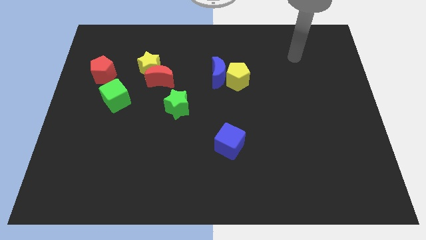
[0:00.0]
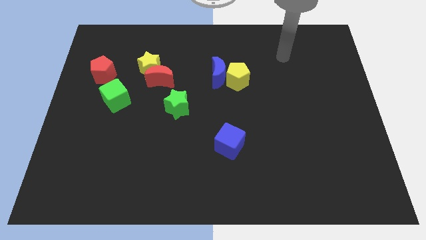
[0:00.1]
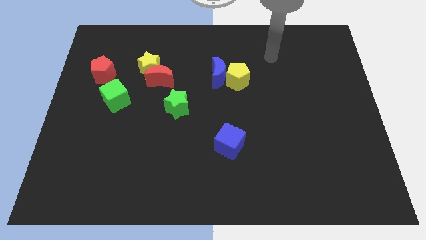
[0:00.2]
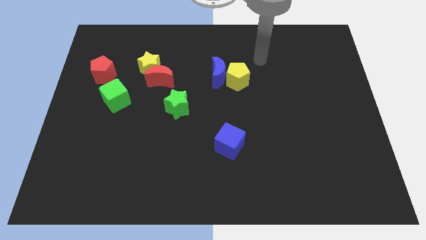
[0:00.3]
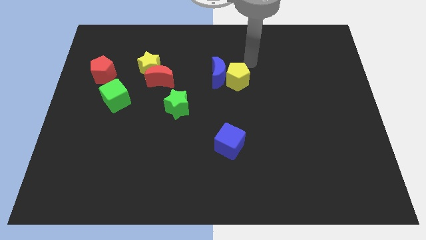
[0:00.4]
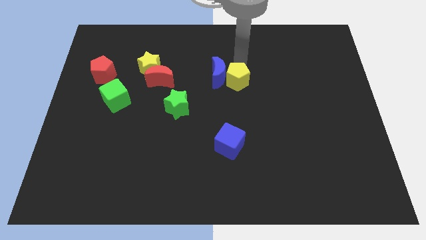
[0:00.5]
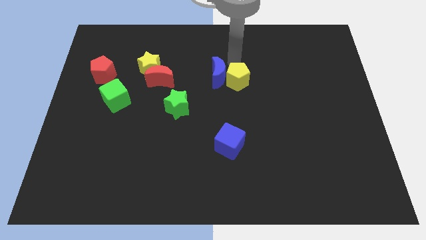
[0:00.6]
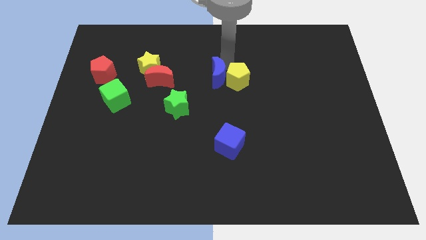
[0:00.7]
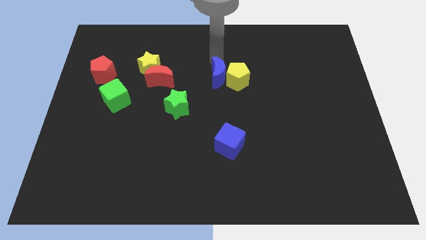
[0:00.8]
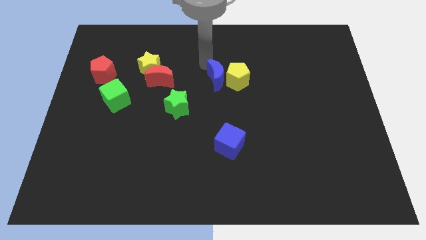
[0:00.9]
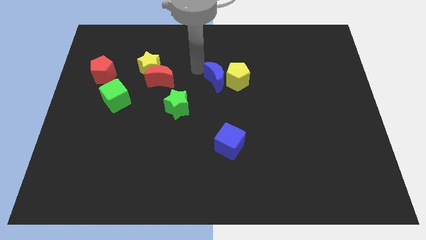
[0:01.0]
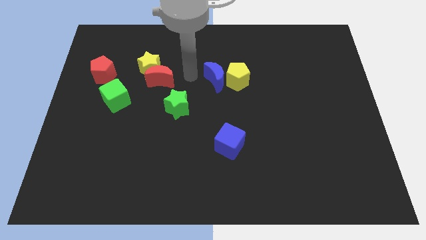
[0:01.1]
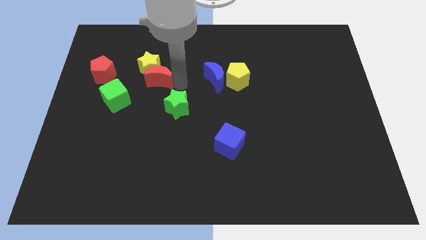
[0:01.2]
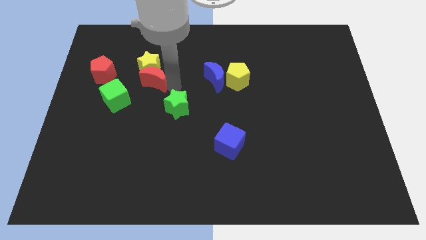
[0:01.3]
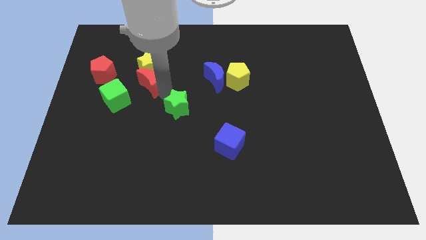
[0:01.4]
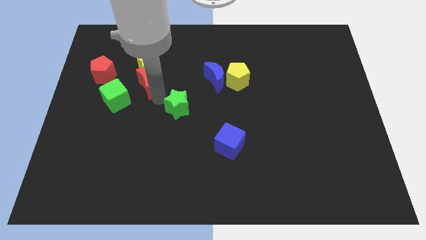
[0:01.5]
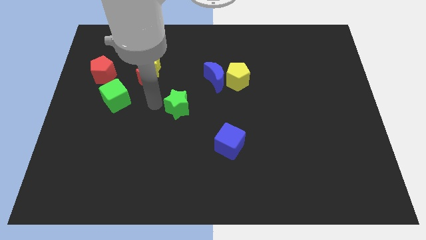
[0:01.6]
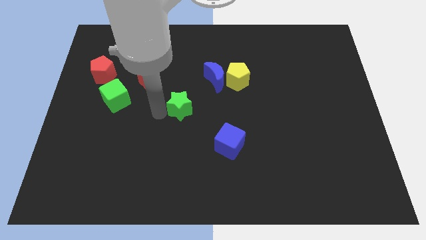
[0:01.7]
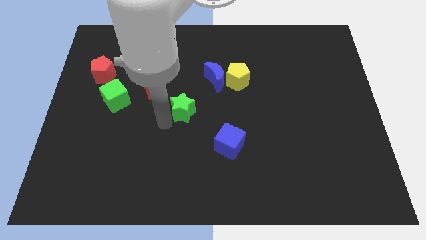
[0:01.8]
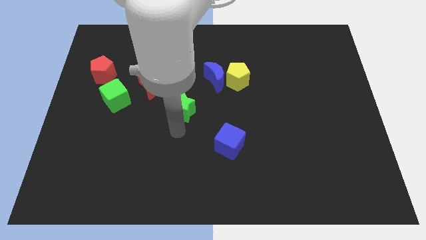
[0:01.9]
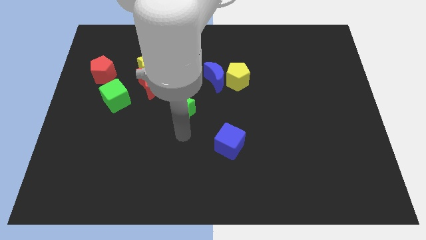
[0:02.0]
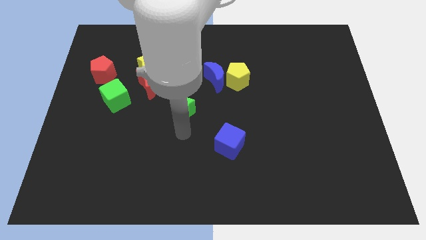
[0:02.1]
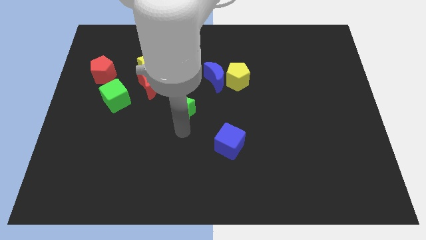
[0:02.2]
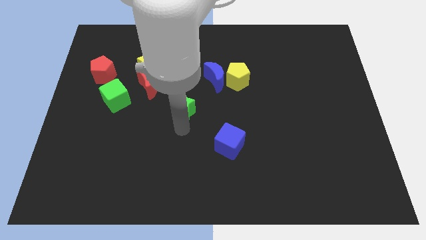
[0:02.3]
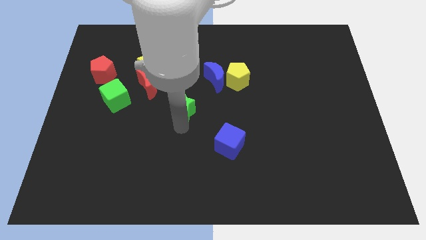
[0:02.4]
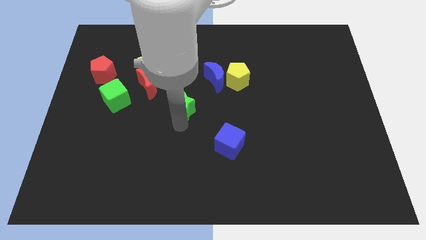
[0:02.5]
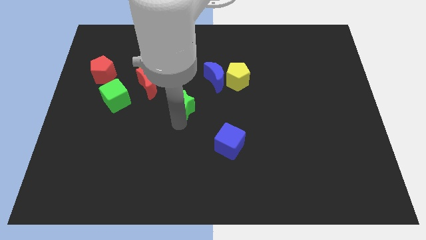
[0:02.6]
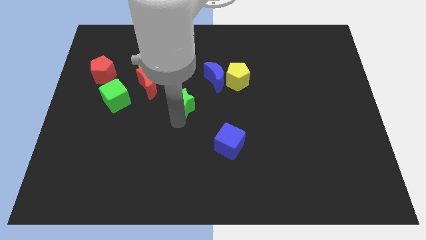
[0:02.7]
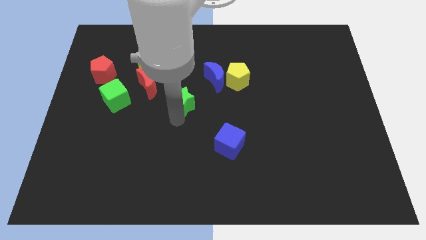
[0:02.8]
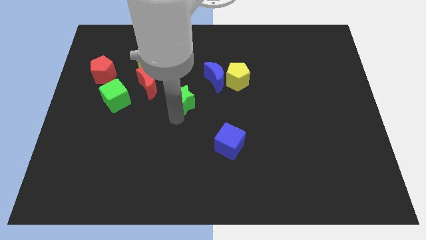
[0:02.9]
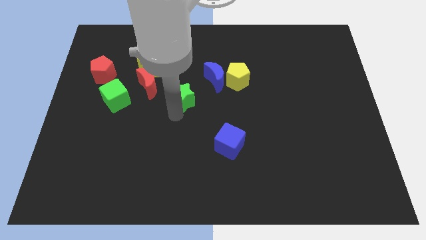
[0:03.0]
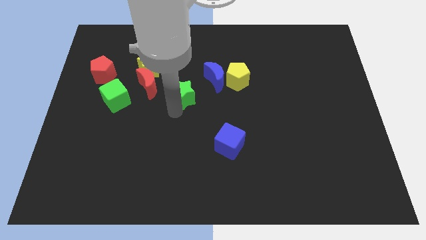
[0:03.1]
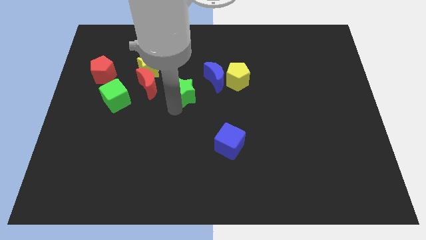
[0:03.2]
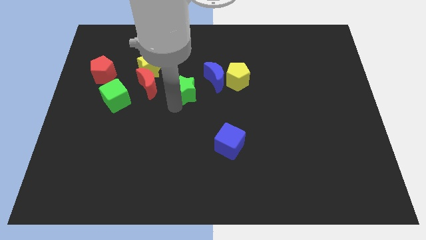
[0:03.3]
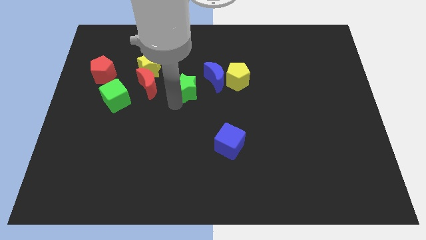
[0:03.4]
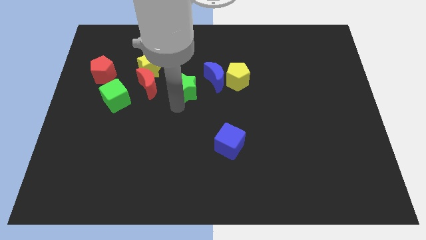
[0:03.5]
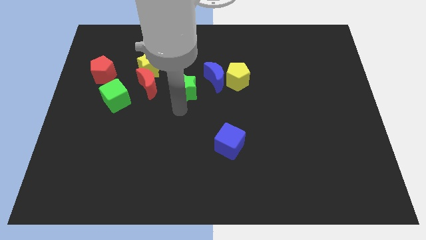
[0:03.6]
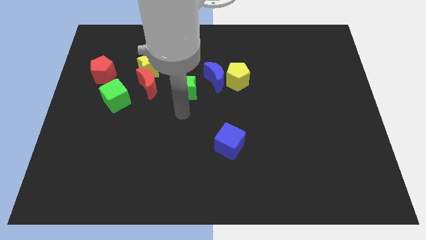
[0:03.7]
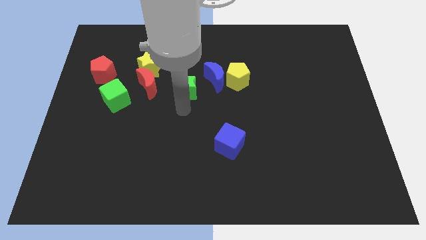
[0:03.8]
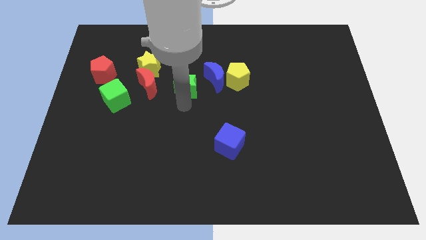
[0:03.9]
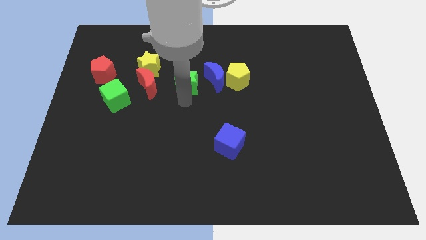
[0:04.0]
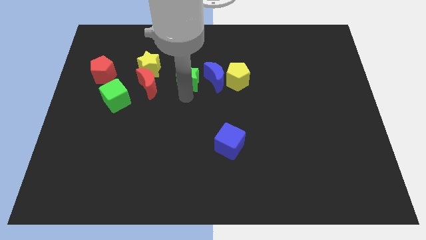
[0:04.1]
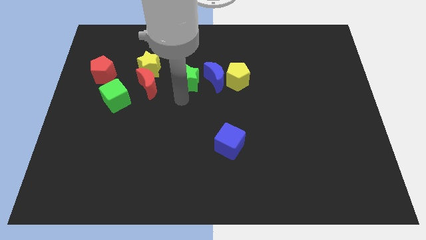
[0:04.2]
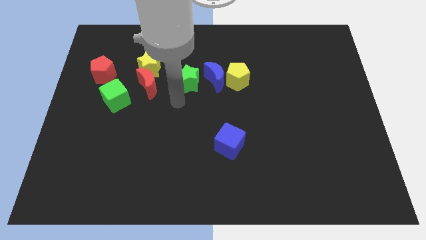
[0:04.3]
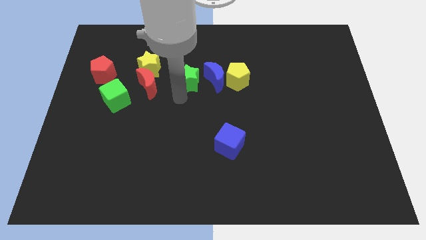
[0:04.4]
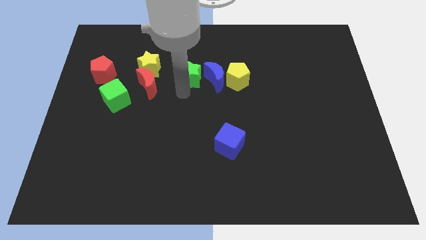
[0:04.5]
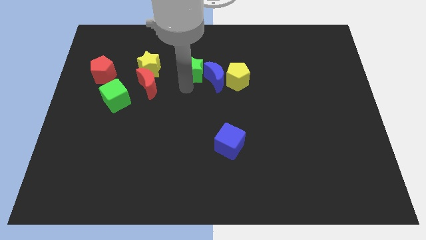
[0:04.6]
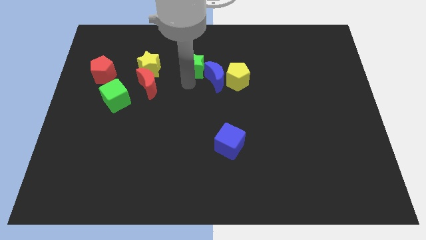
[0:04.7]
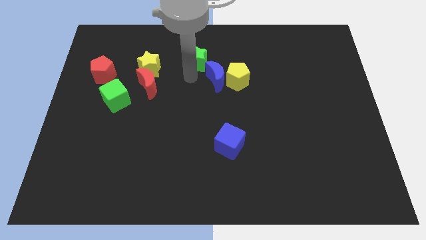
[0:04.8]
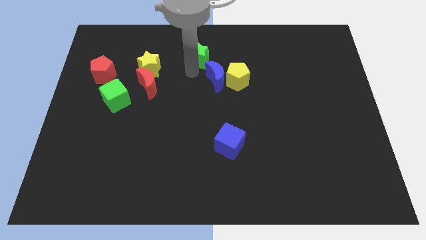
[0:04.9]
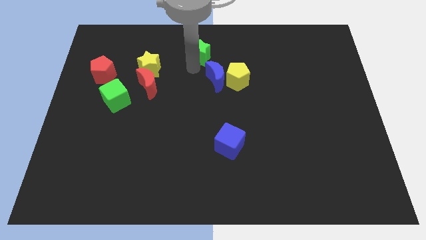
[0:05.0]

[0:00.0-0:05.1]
push the green star to the top

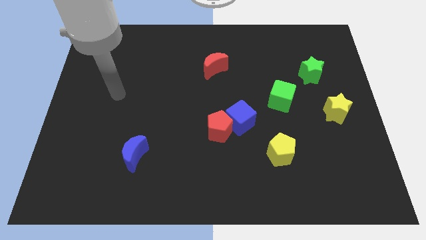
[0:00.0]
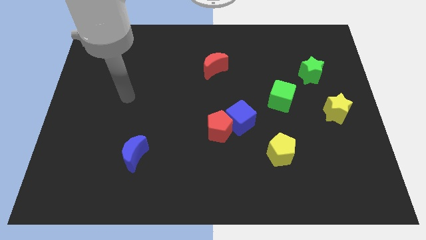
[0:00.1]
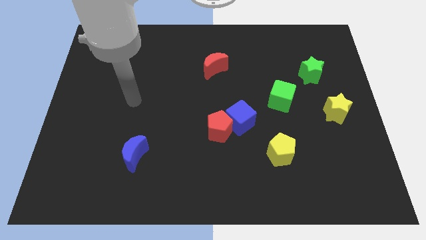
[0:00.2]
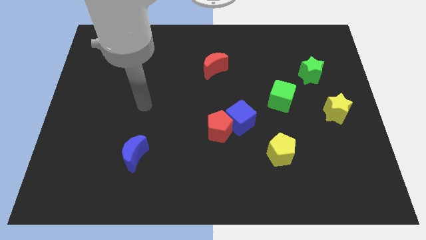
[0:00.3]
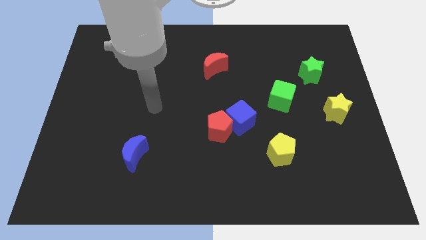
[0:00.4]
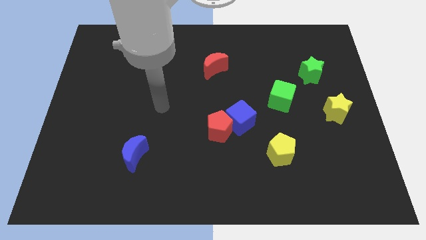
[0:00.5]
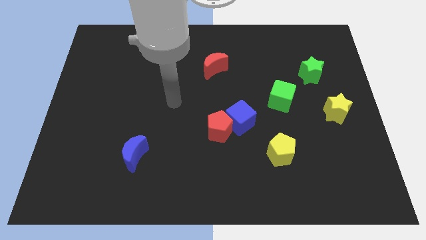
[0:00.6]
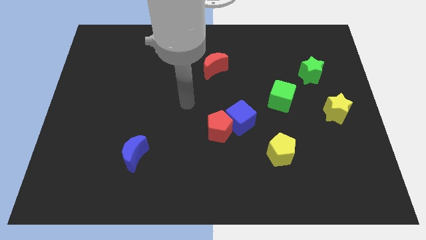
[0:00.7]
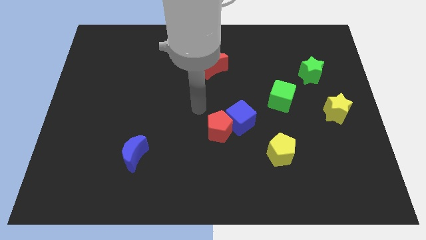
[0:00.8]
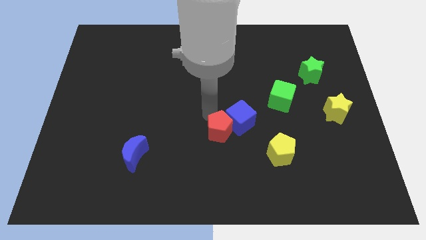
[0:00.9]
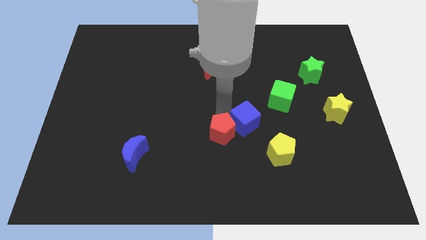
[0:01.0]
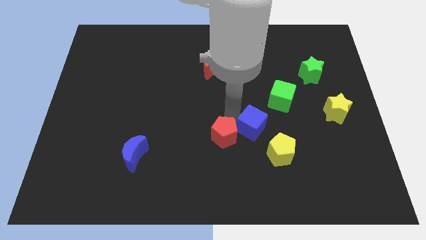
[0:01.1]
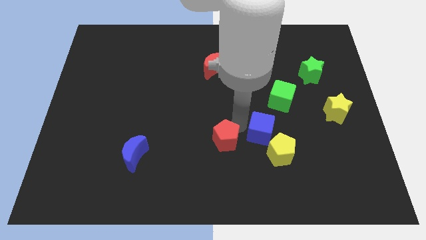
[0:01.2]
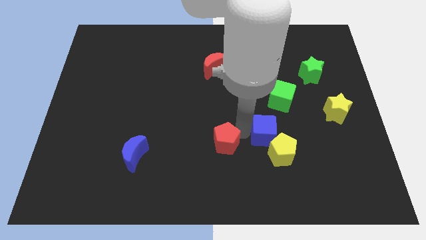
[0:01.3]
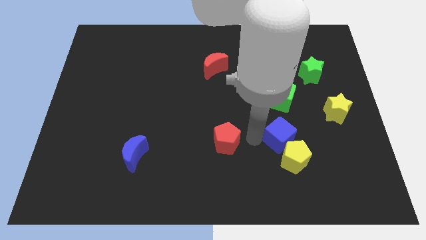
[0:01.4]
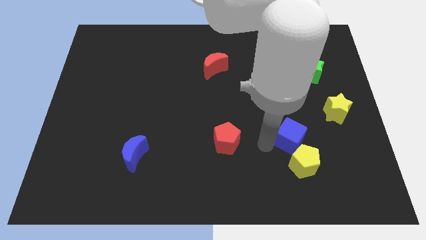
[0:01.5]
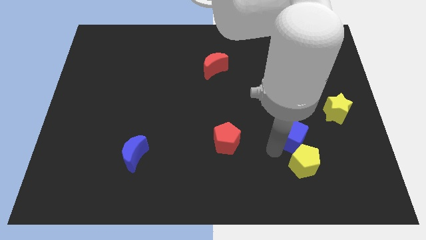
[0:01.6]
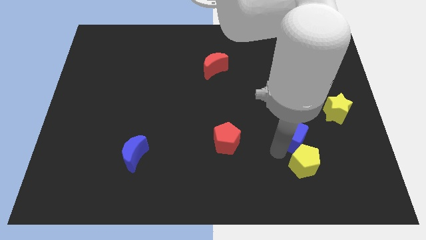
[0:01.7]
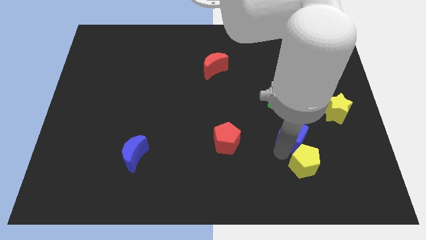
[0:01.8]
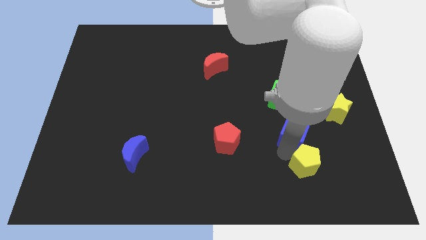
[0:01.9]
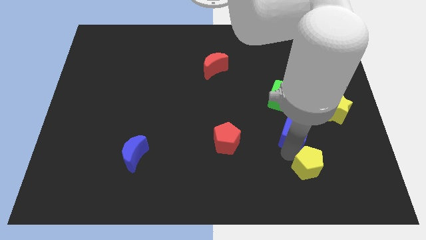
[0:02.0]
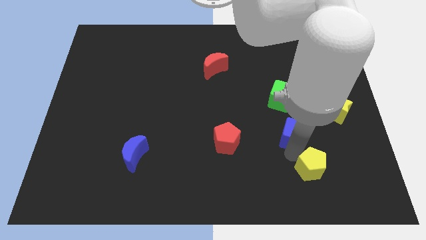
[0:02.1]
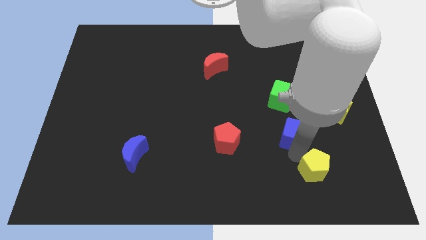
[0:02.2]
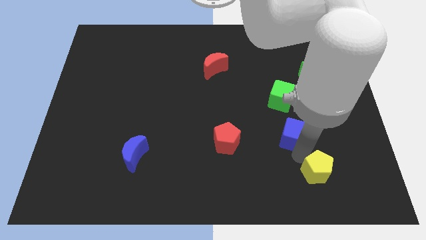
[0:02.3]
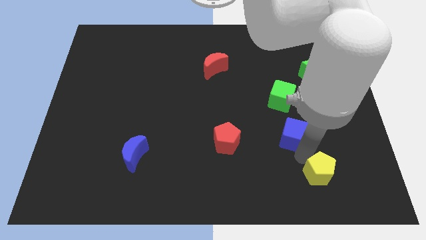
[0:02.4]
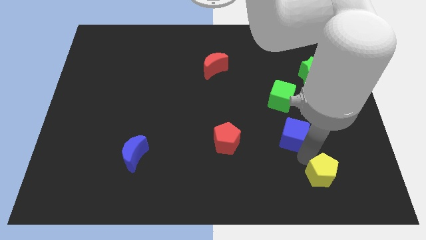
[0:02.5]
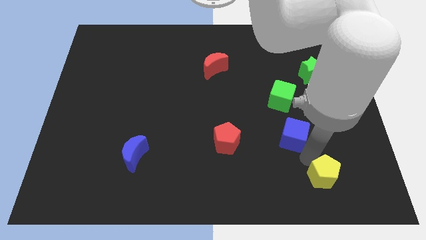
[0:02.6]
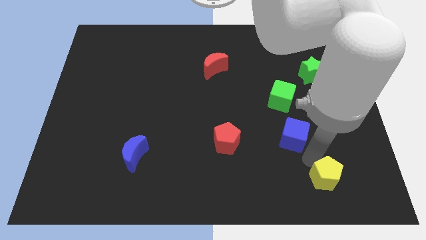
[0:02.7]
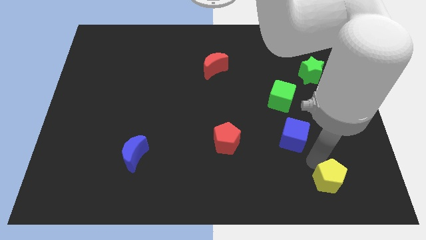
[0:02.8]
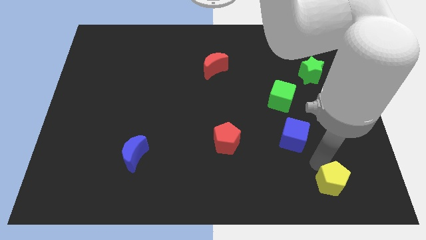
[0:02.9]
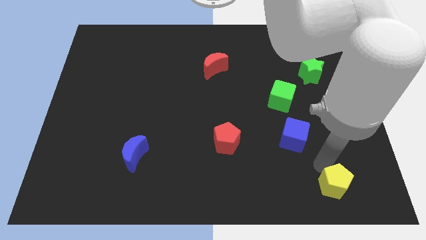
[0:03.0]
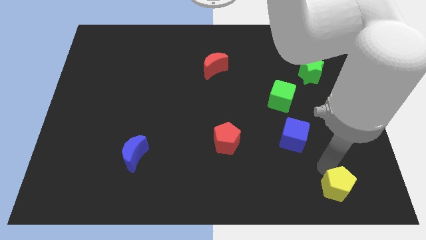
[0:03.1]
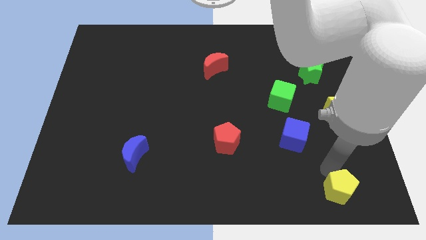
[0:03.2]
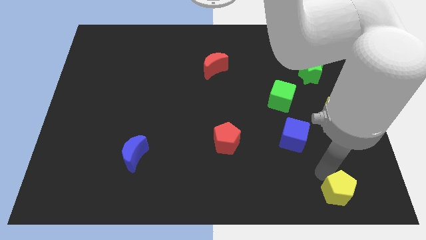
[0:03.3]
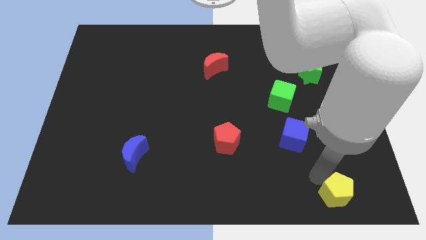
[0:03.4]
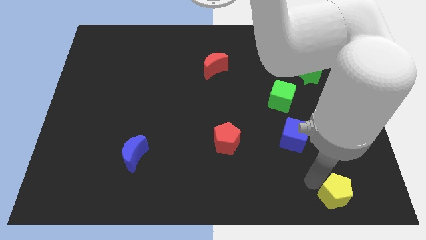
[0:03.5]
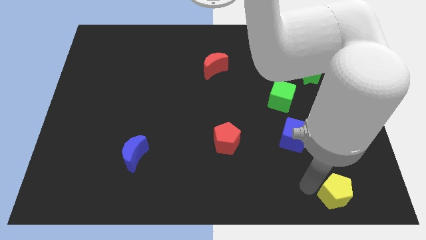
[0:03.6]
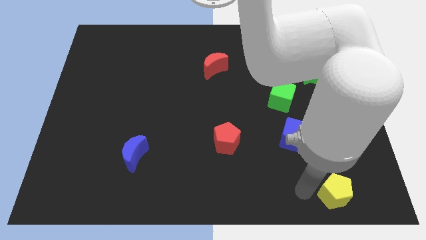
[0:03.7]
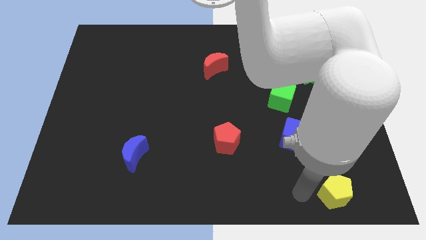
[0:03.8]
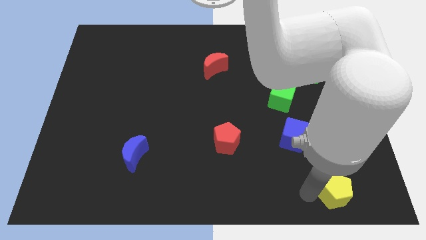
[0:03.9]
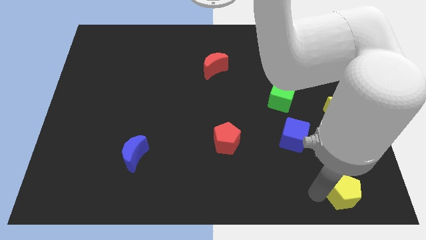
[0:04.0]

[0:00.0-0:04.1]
move the yellow pentagon to the bottom right of the board
